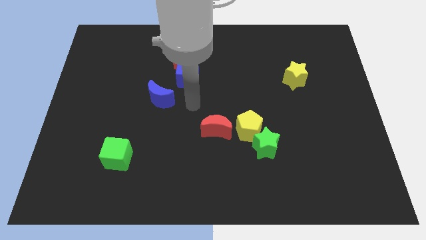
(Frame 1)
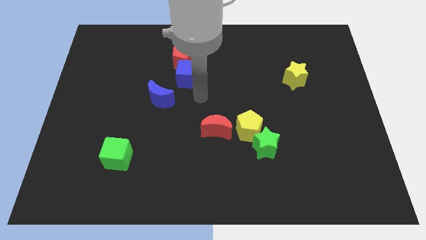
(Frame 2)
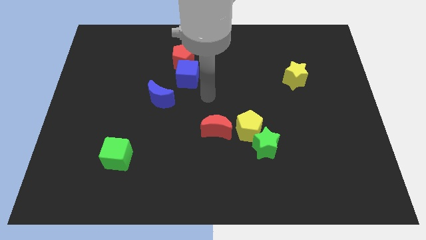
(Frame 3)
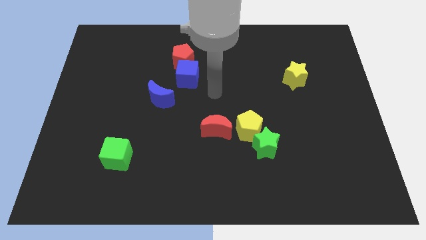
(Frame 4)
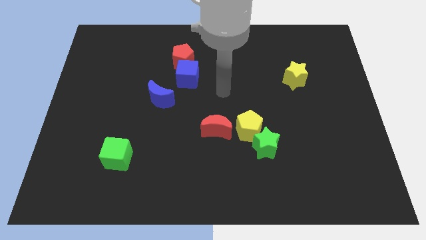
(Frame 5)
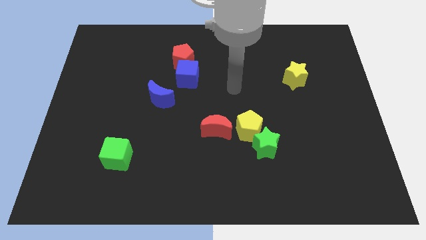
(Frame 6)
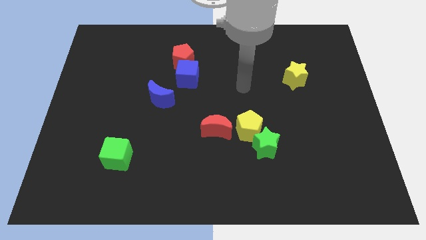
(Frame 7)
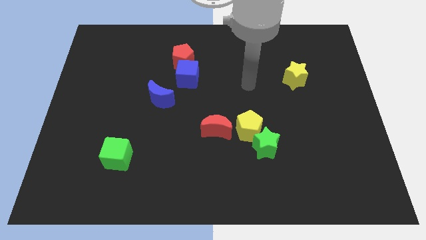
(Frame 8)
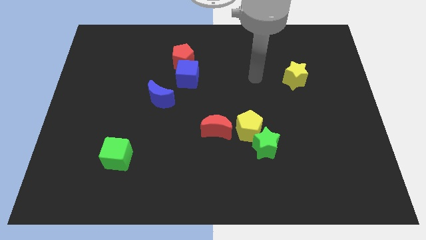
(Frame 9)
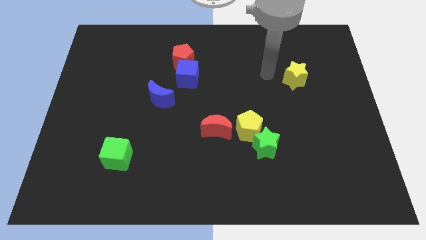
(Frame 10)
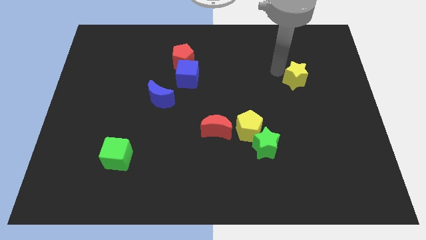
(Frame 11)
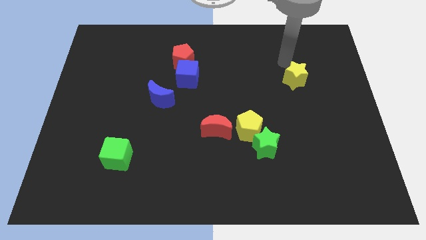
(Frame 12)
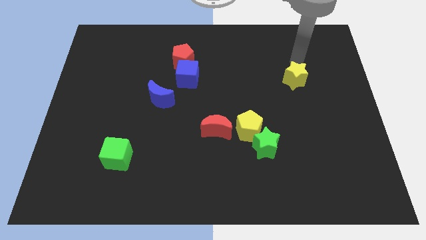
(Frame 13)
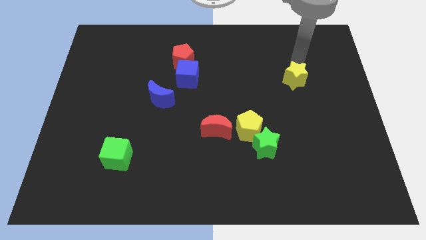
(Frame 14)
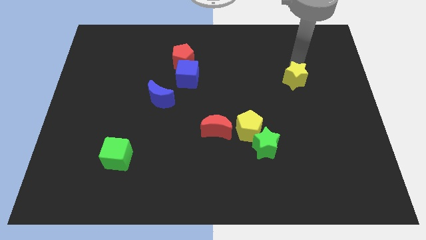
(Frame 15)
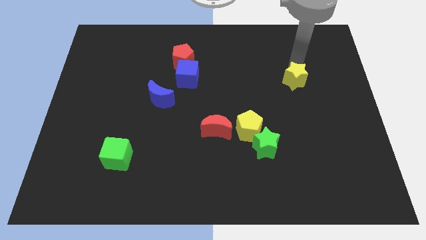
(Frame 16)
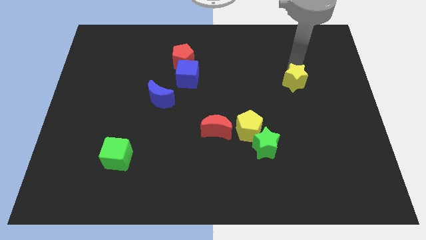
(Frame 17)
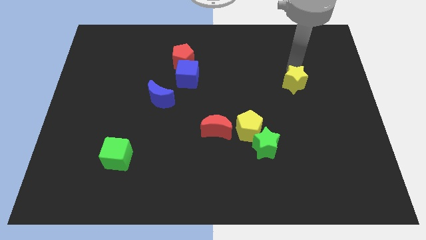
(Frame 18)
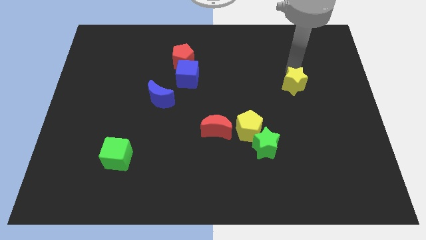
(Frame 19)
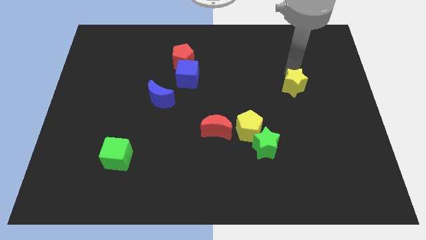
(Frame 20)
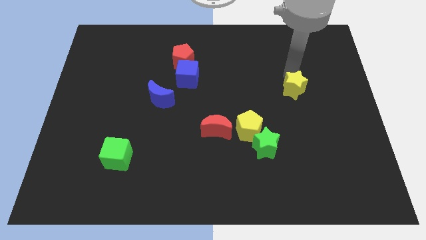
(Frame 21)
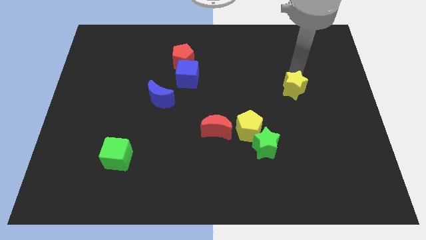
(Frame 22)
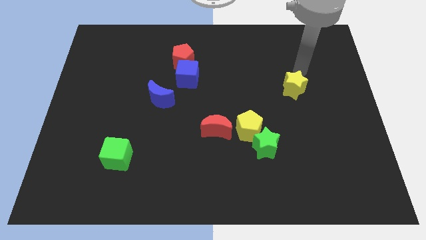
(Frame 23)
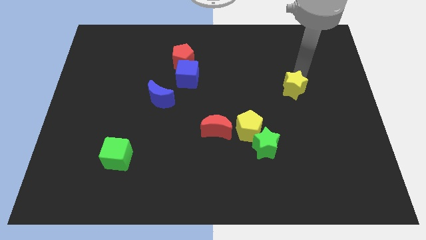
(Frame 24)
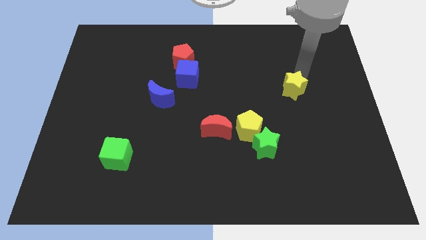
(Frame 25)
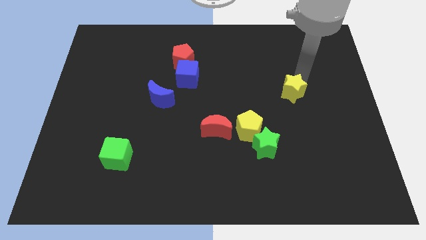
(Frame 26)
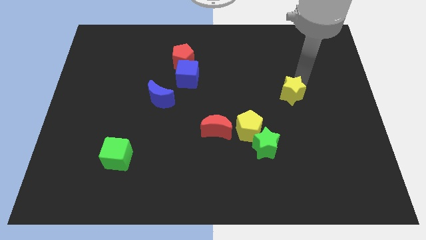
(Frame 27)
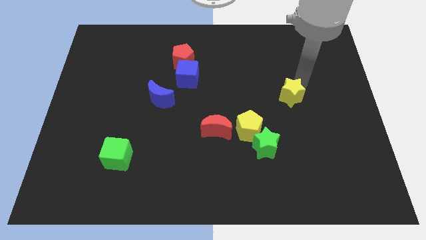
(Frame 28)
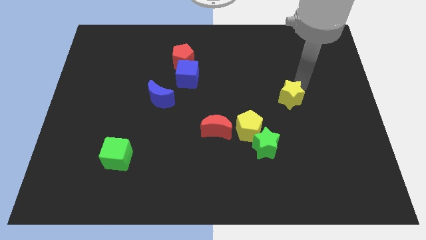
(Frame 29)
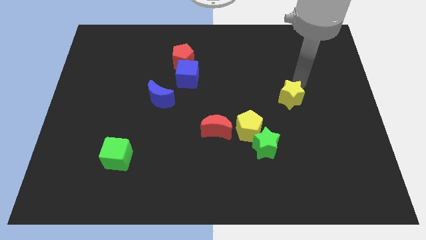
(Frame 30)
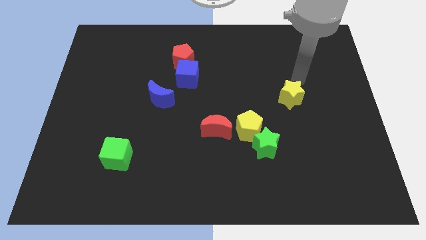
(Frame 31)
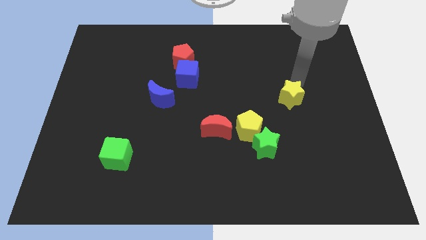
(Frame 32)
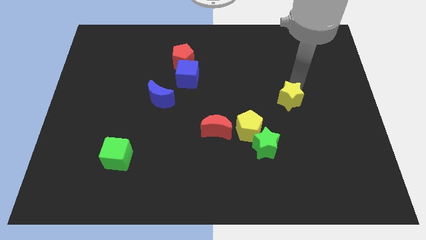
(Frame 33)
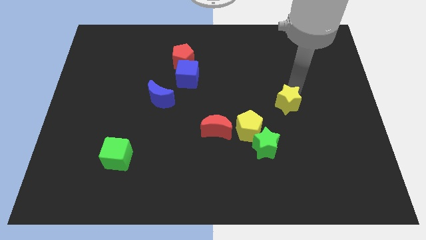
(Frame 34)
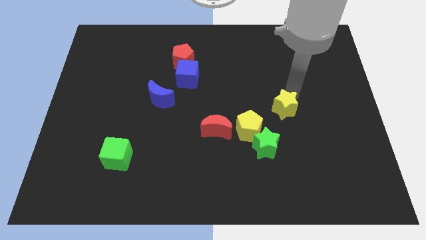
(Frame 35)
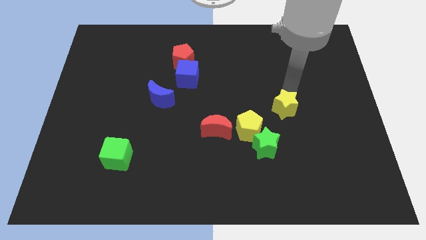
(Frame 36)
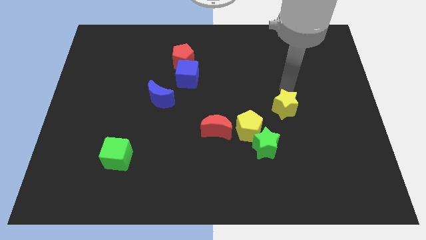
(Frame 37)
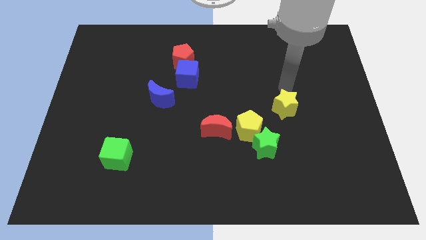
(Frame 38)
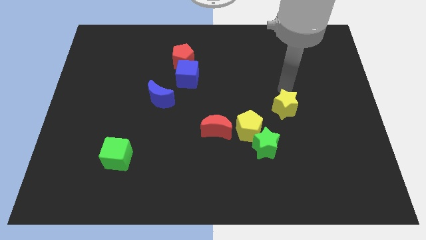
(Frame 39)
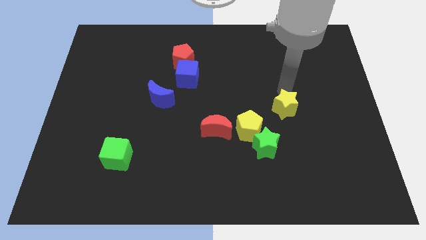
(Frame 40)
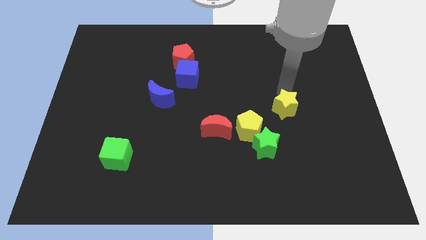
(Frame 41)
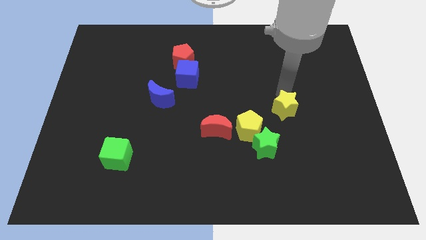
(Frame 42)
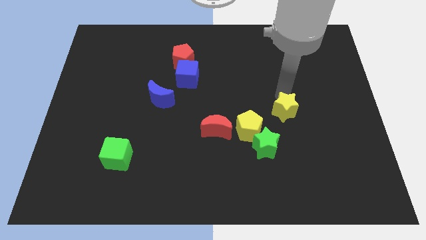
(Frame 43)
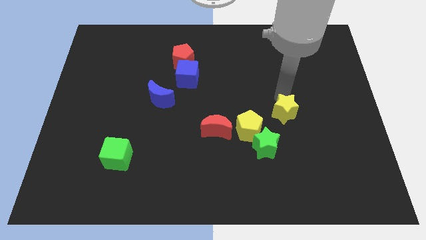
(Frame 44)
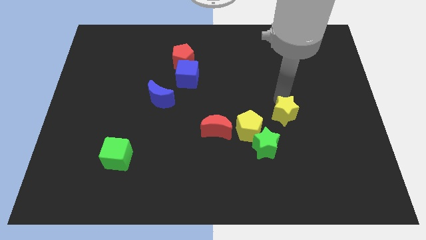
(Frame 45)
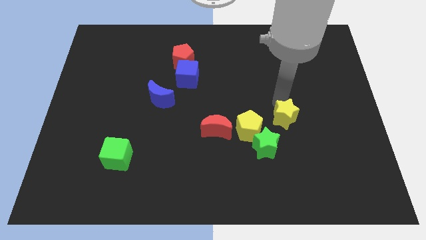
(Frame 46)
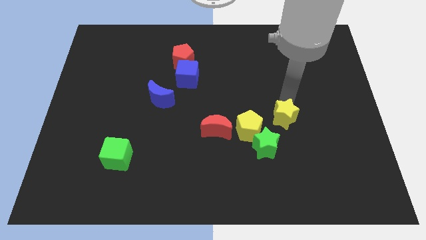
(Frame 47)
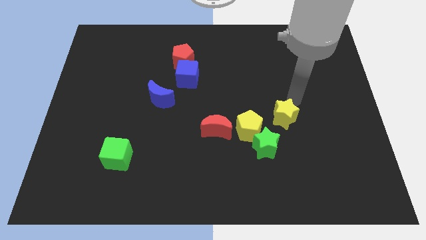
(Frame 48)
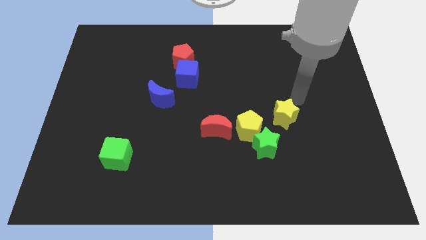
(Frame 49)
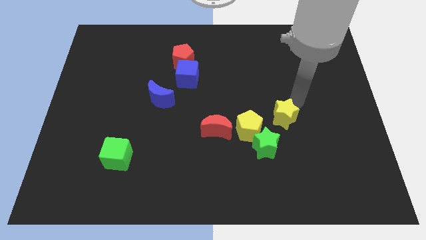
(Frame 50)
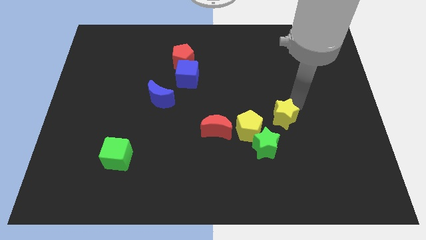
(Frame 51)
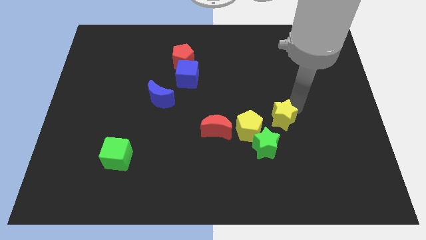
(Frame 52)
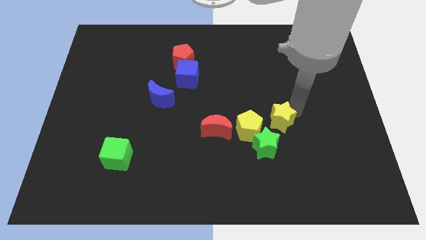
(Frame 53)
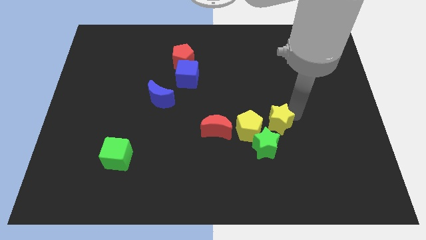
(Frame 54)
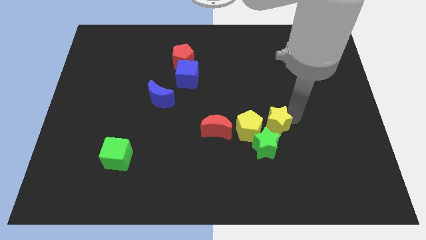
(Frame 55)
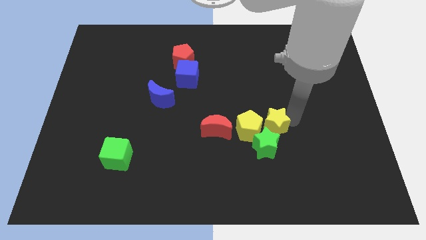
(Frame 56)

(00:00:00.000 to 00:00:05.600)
push the yellow star to the green star
